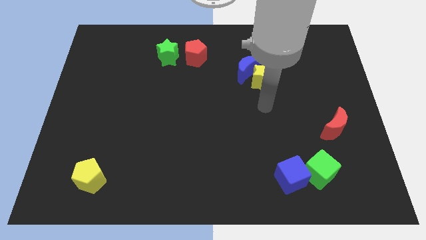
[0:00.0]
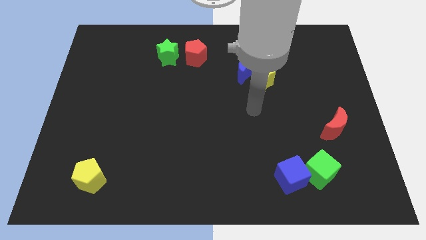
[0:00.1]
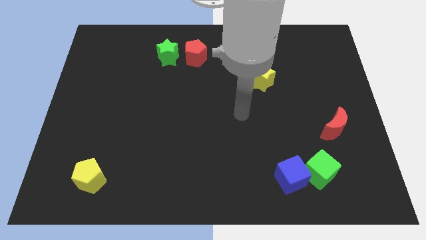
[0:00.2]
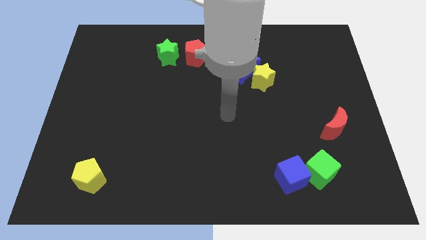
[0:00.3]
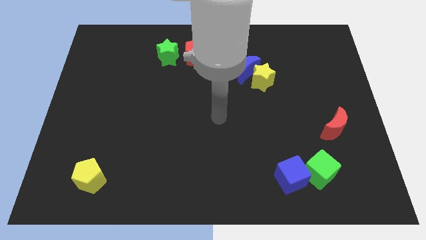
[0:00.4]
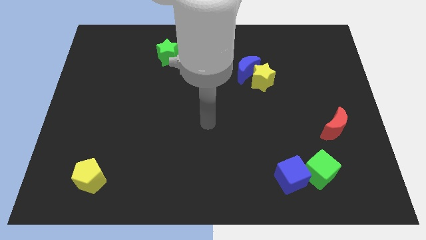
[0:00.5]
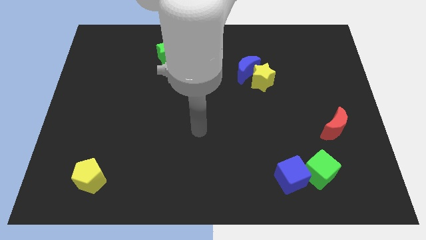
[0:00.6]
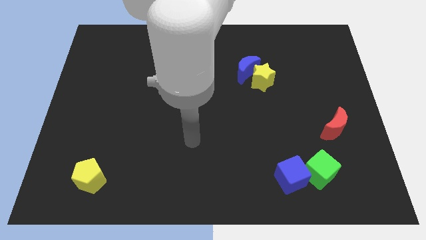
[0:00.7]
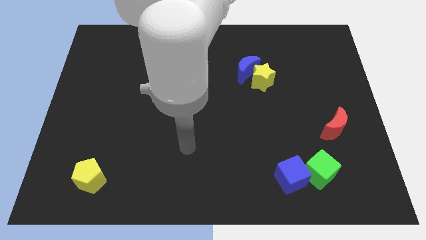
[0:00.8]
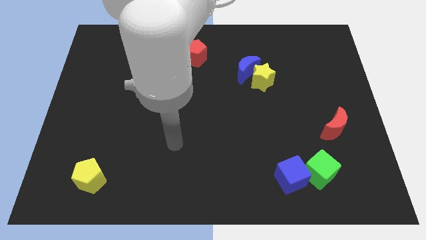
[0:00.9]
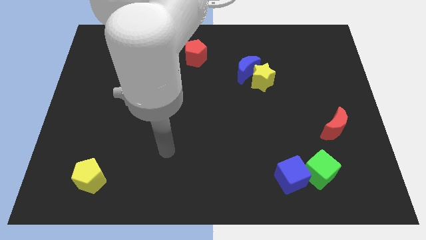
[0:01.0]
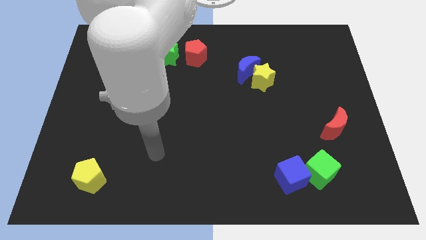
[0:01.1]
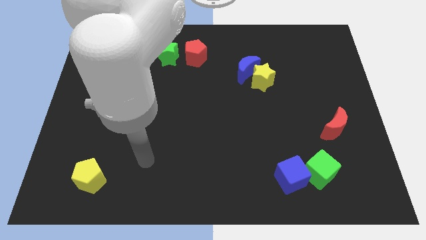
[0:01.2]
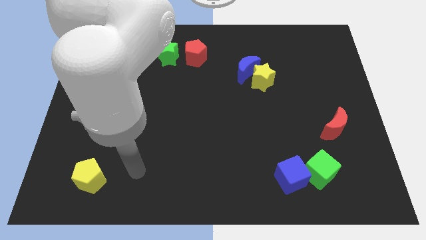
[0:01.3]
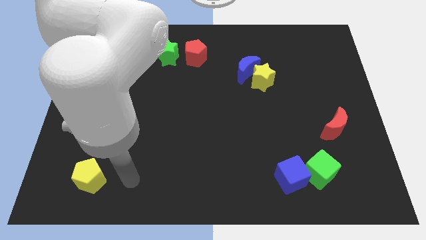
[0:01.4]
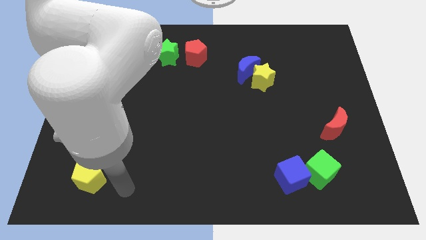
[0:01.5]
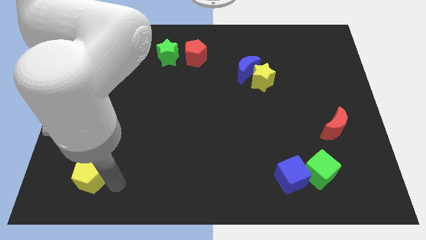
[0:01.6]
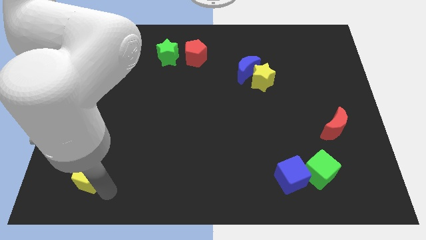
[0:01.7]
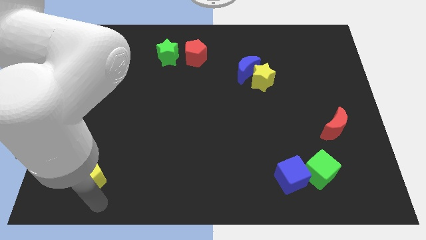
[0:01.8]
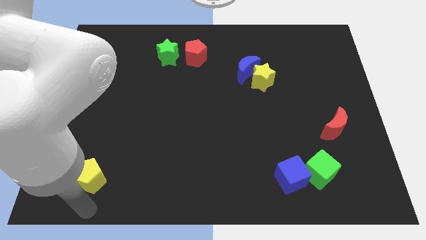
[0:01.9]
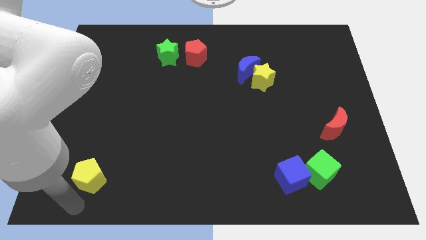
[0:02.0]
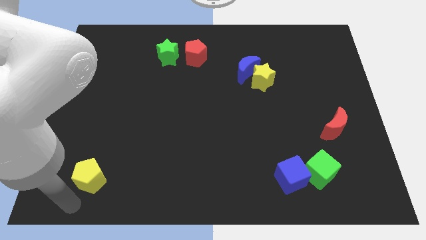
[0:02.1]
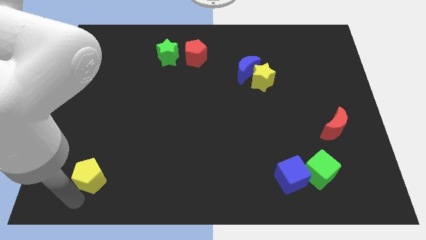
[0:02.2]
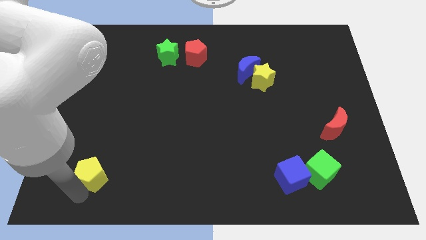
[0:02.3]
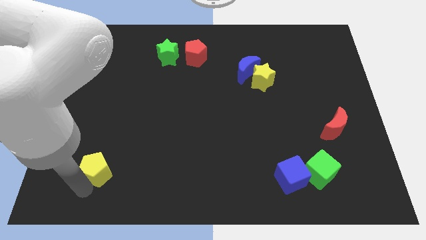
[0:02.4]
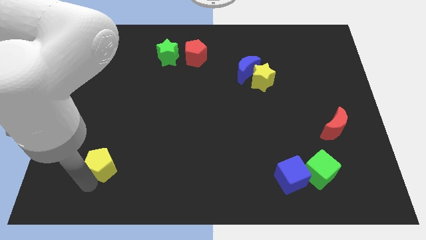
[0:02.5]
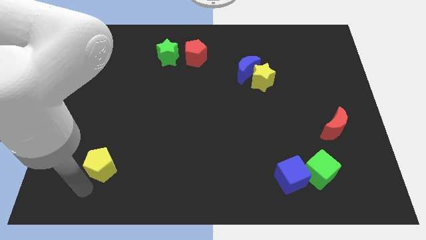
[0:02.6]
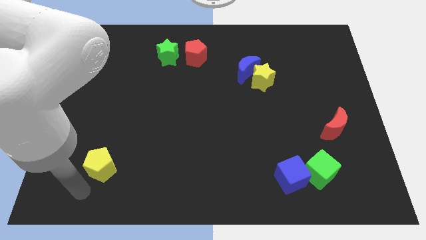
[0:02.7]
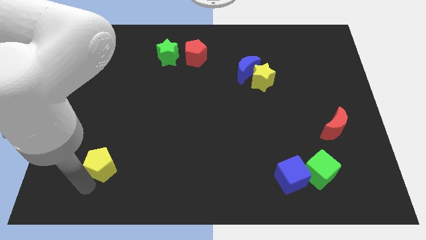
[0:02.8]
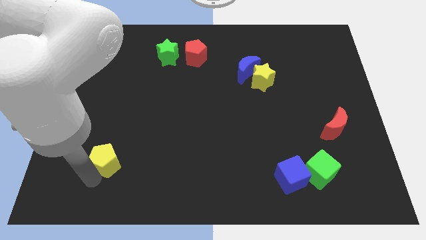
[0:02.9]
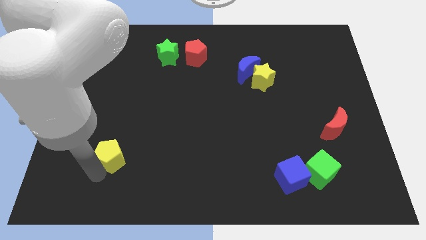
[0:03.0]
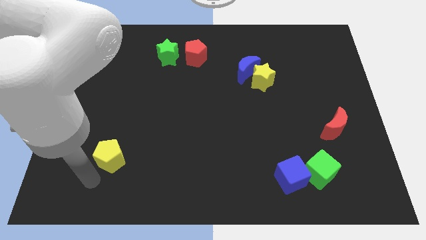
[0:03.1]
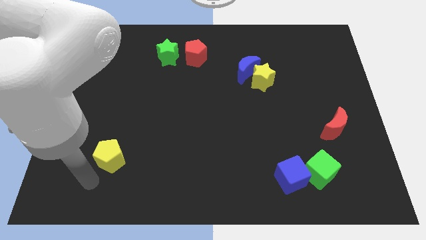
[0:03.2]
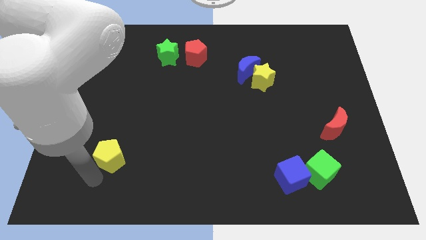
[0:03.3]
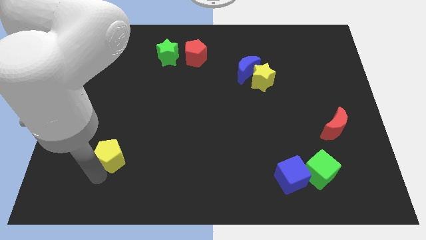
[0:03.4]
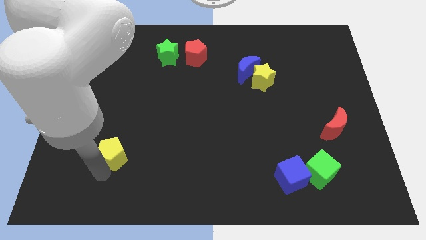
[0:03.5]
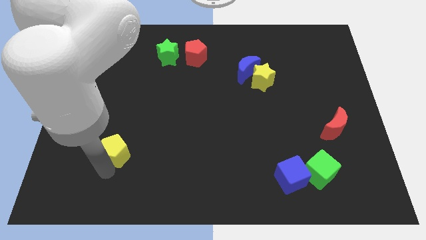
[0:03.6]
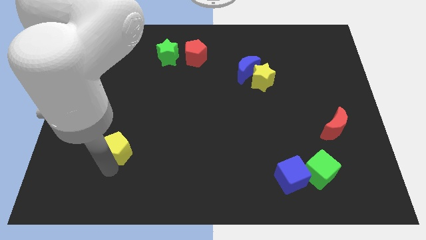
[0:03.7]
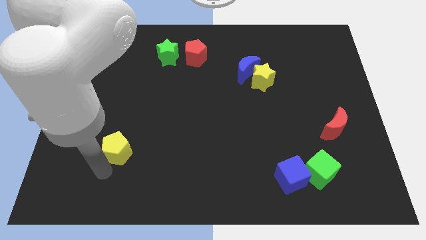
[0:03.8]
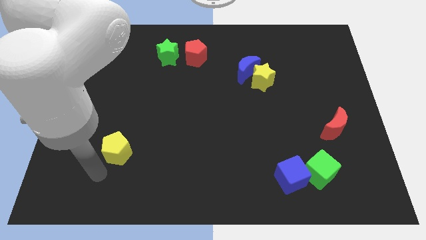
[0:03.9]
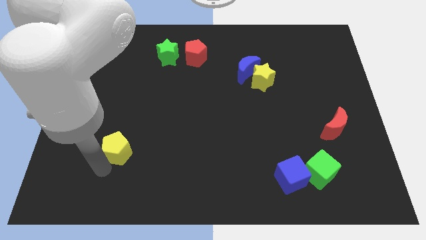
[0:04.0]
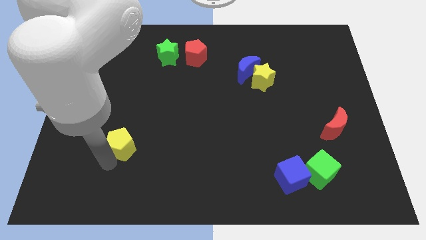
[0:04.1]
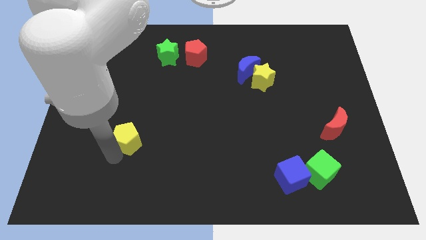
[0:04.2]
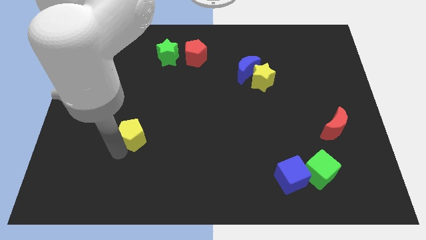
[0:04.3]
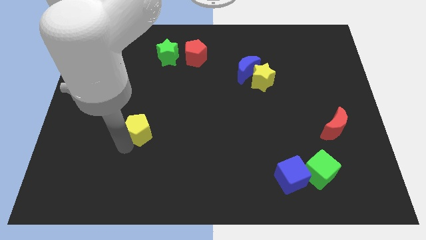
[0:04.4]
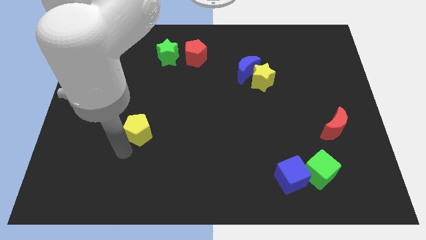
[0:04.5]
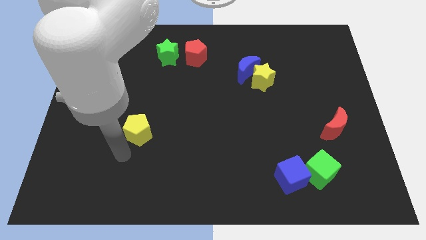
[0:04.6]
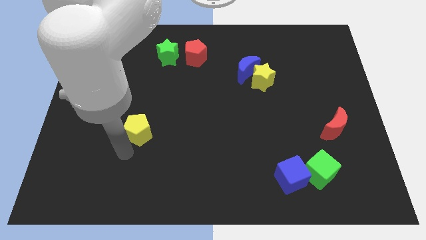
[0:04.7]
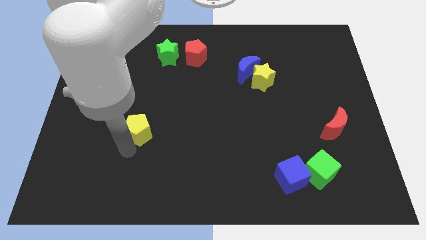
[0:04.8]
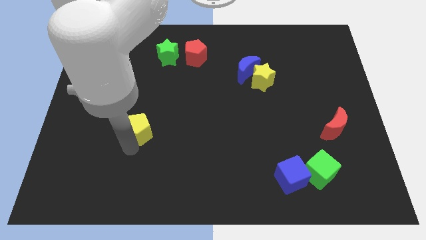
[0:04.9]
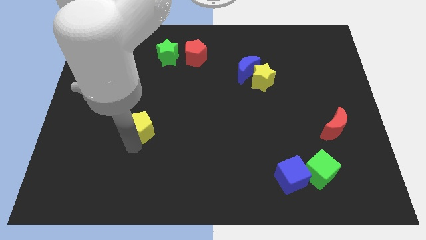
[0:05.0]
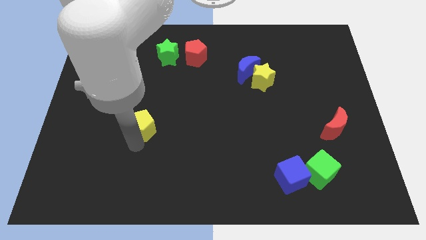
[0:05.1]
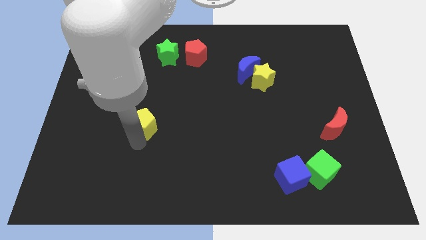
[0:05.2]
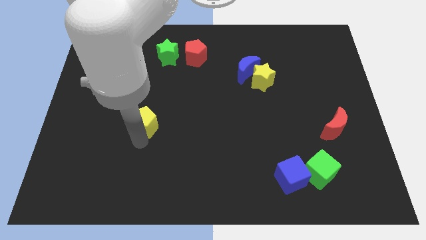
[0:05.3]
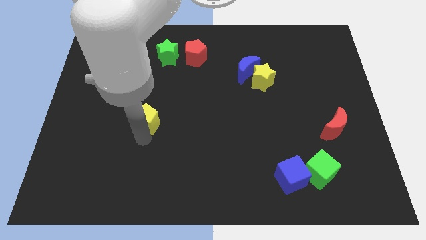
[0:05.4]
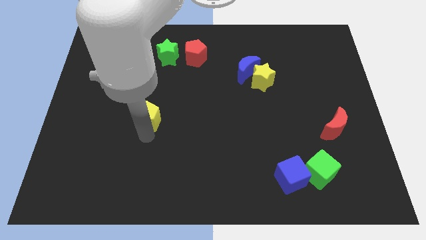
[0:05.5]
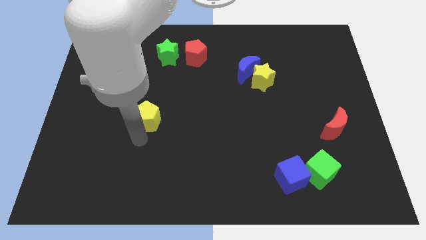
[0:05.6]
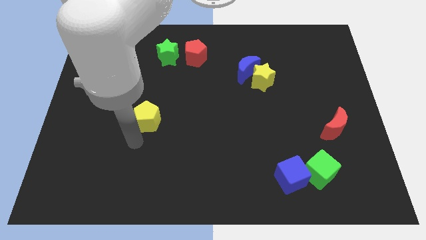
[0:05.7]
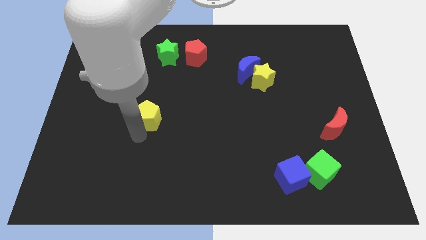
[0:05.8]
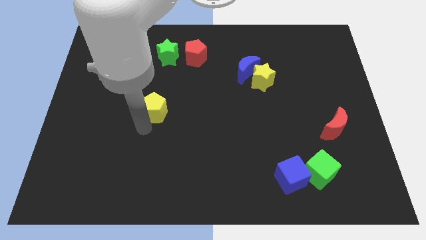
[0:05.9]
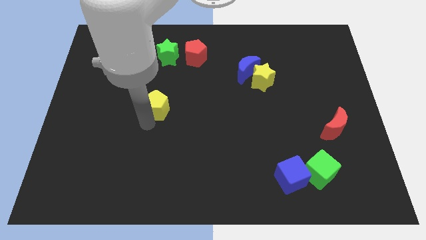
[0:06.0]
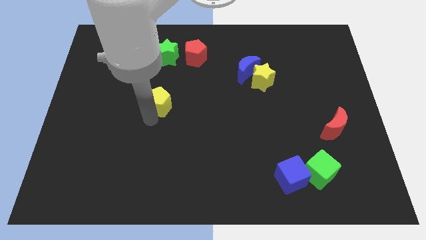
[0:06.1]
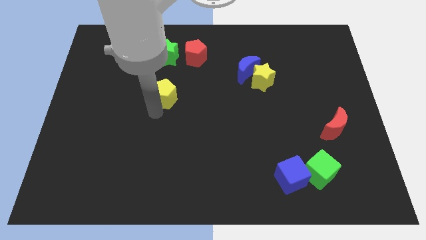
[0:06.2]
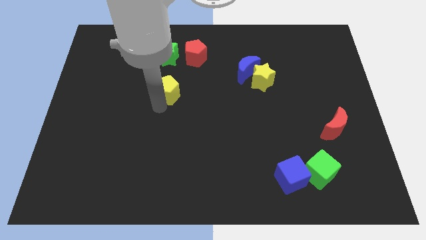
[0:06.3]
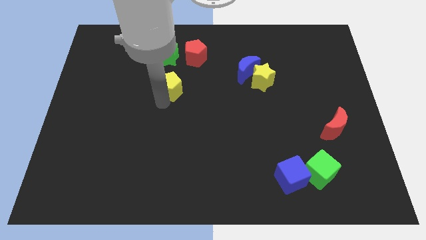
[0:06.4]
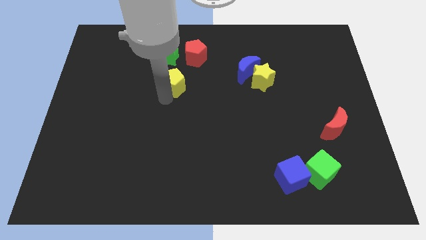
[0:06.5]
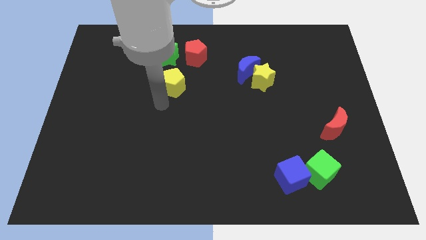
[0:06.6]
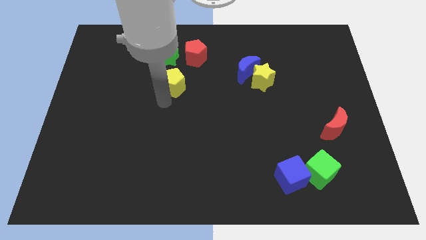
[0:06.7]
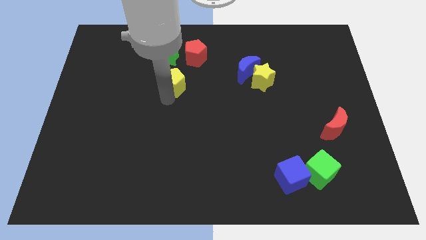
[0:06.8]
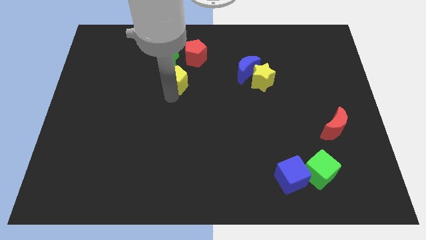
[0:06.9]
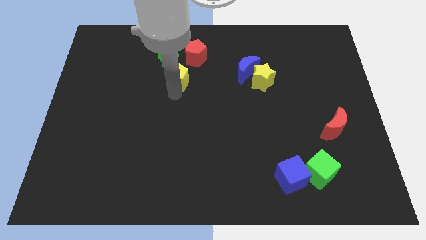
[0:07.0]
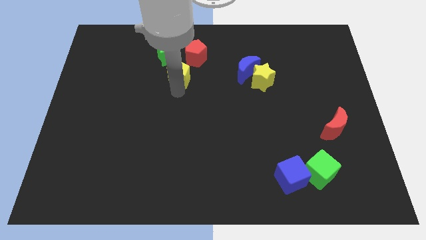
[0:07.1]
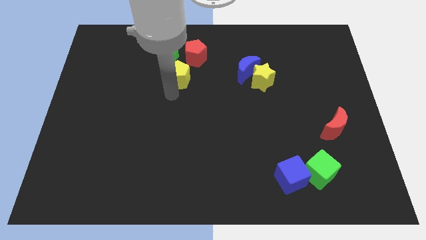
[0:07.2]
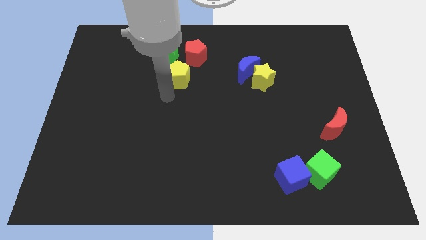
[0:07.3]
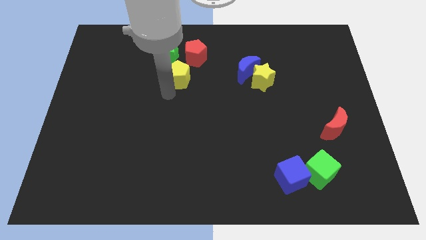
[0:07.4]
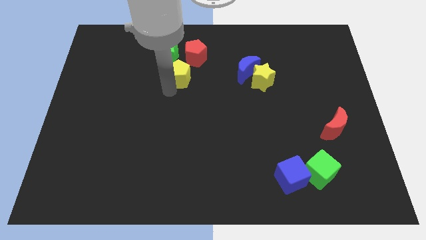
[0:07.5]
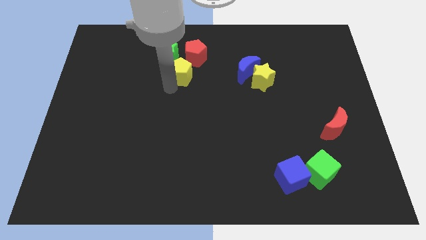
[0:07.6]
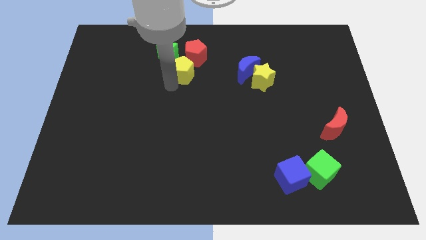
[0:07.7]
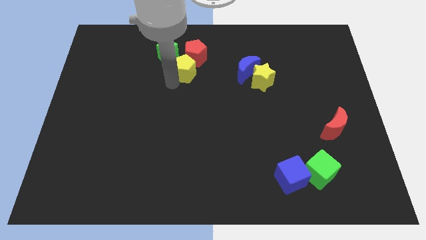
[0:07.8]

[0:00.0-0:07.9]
put the yellow pentagon to the red pentagon
